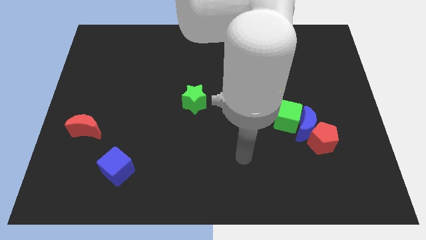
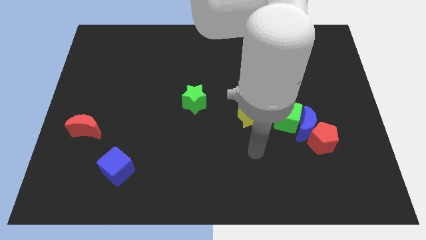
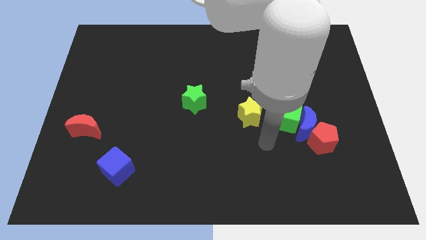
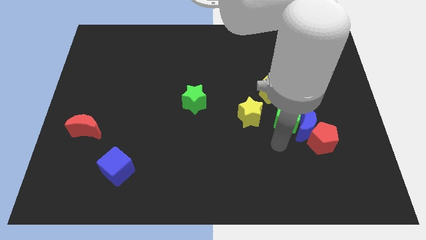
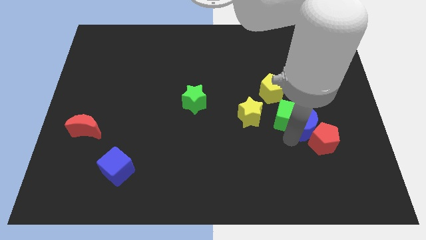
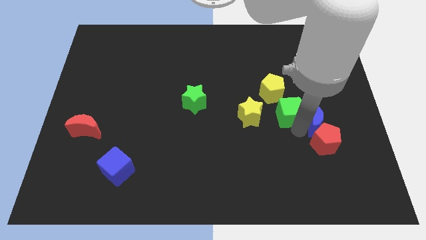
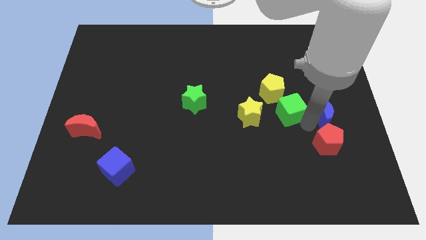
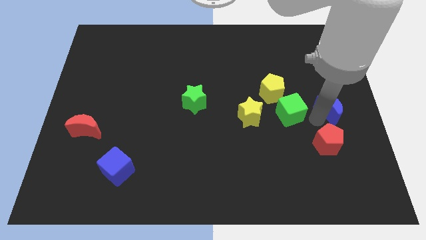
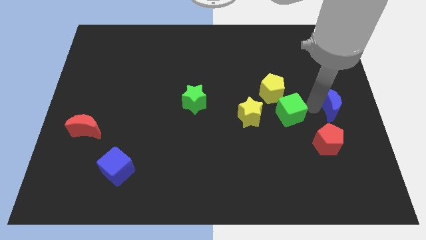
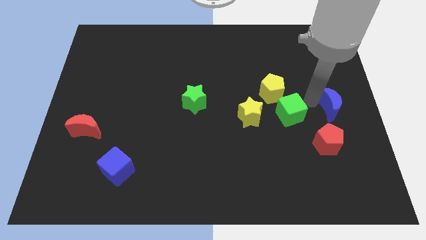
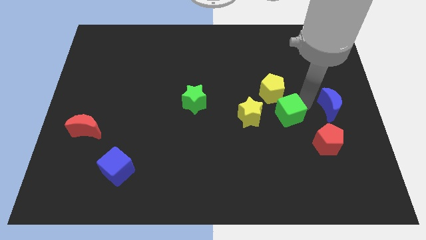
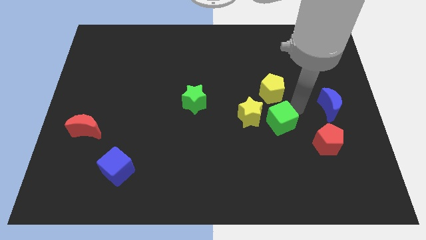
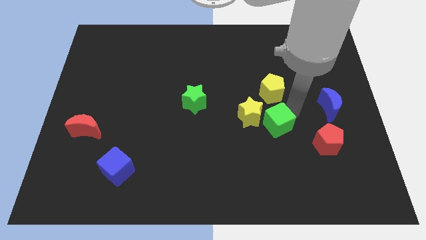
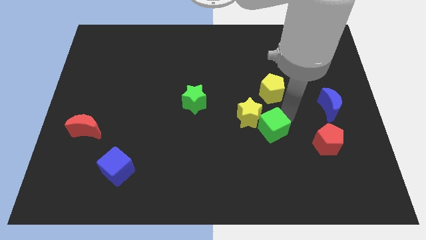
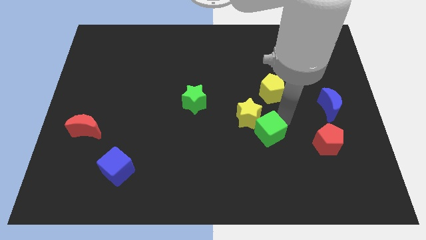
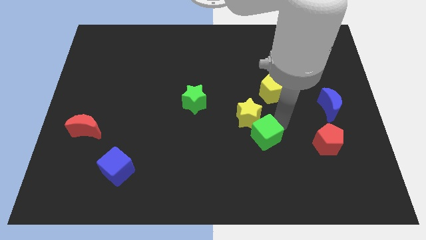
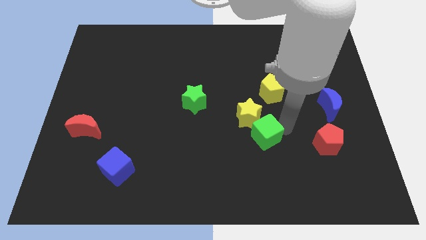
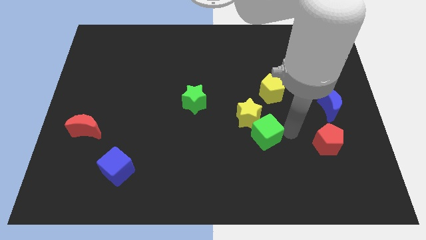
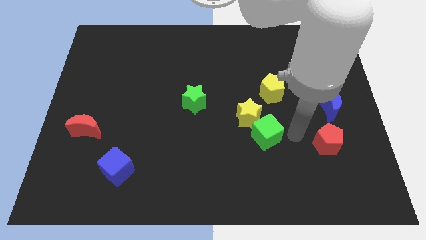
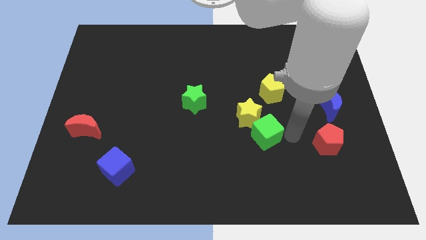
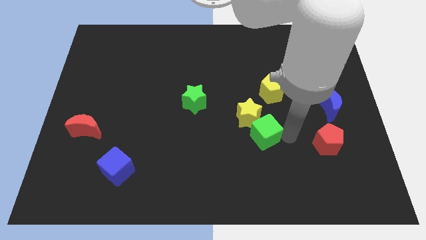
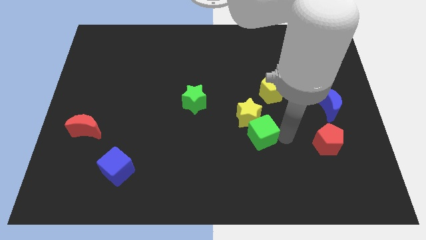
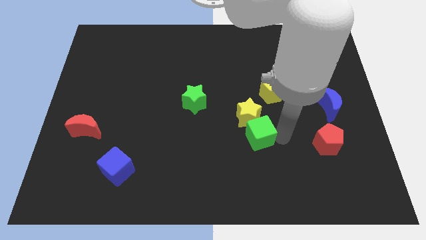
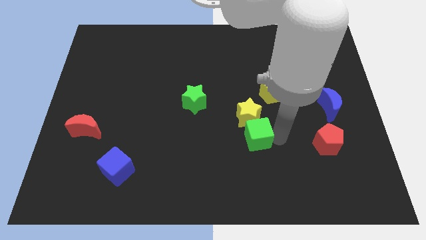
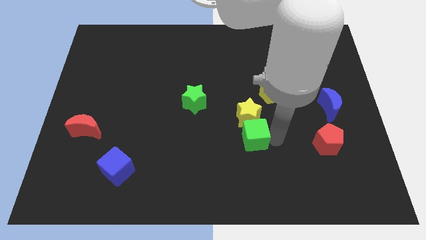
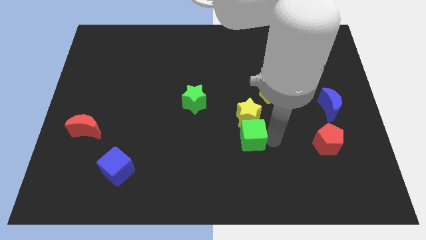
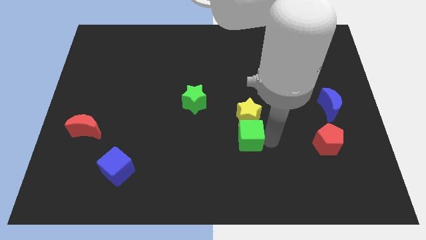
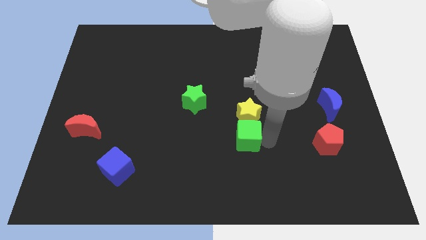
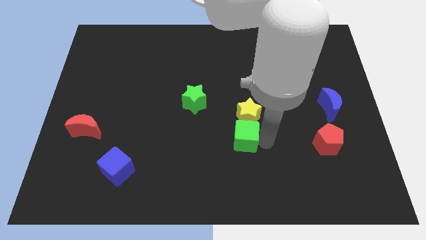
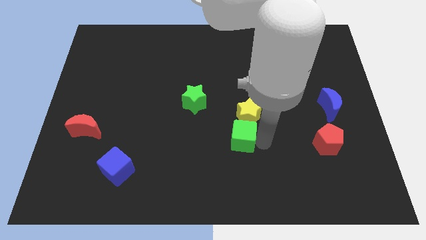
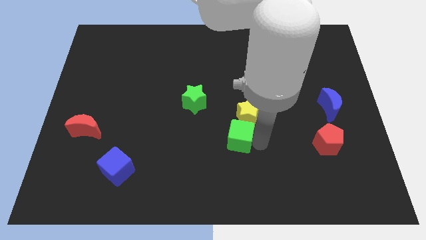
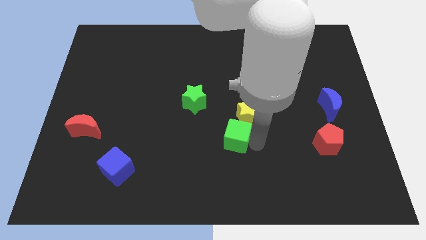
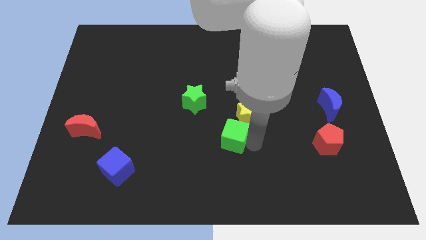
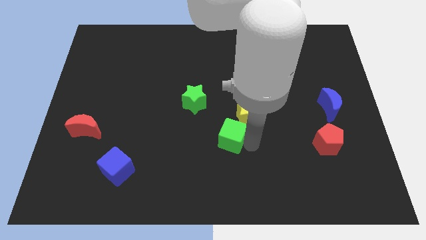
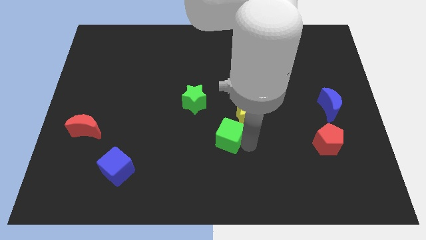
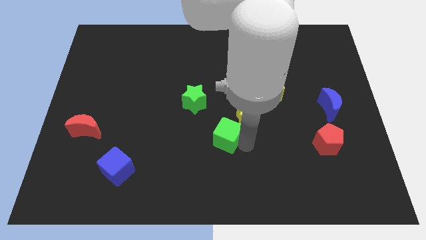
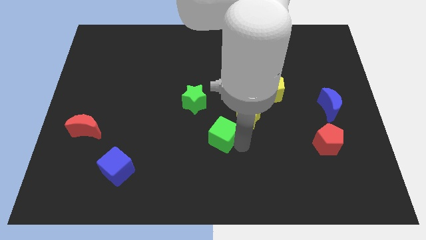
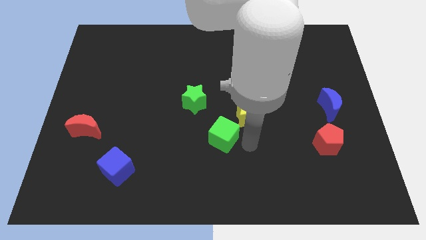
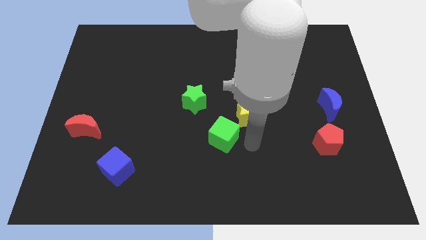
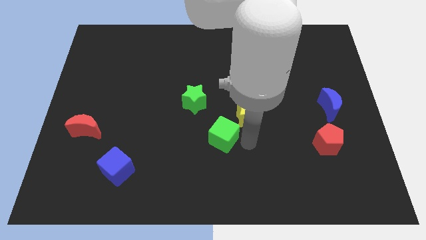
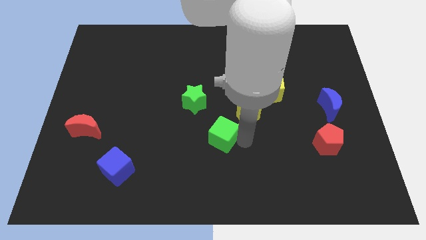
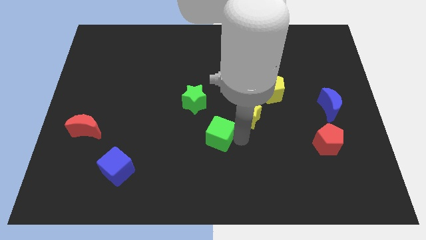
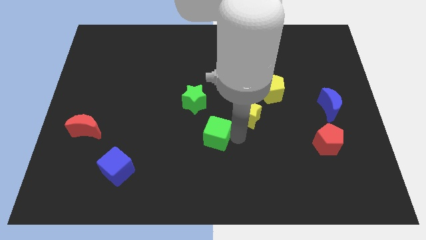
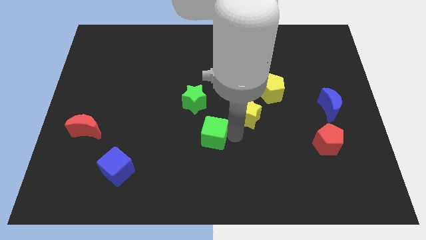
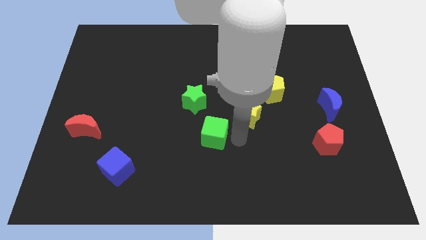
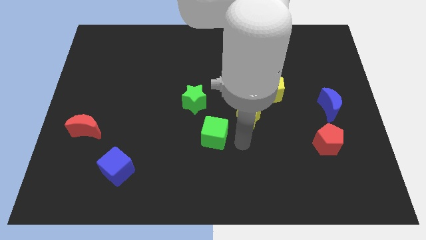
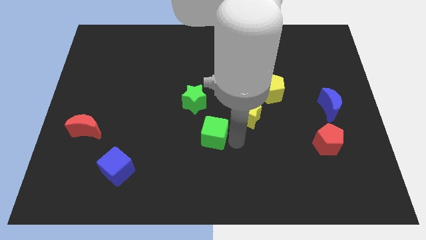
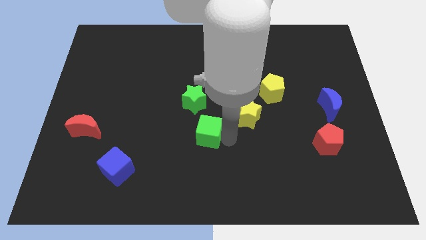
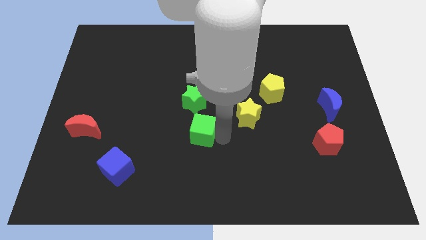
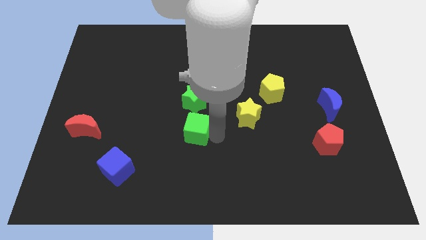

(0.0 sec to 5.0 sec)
push the green cube left

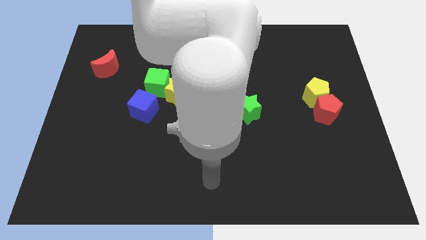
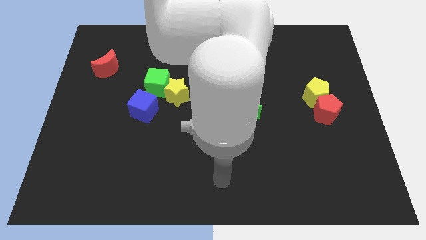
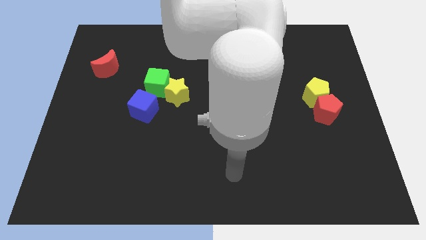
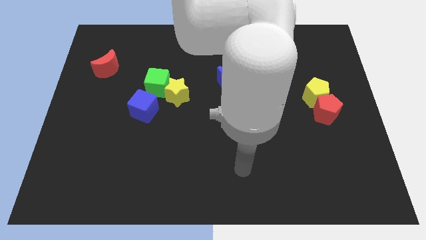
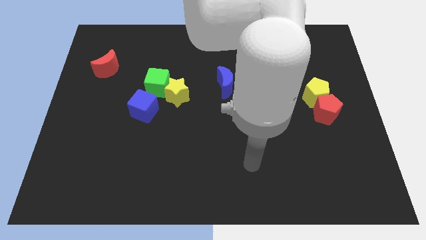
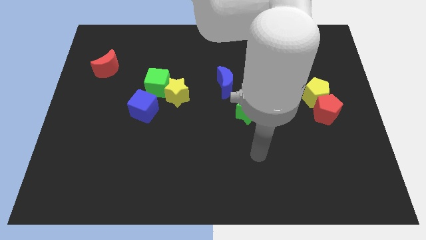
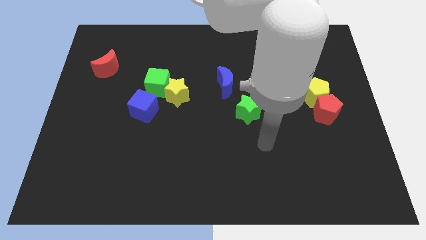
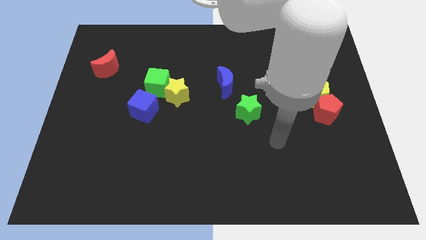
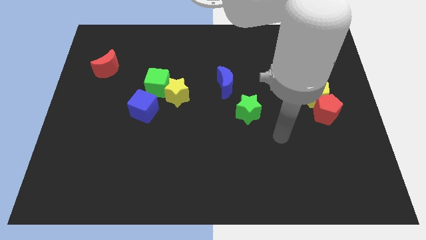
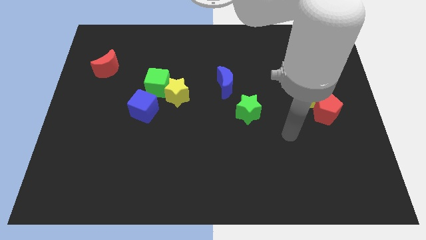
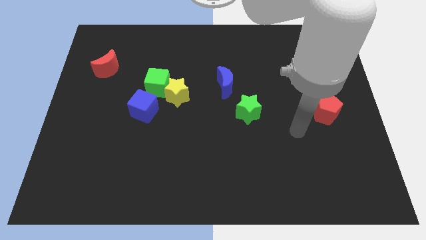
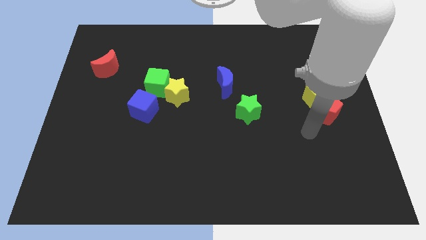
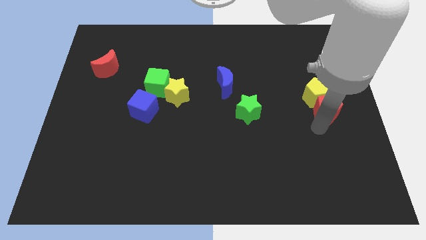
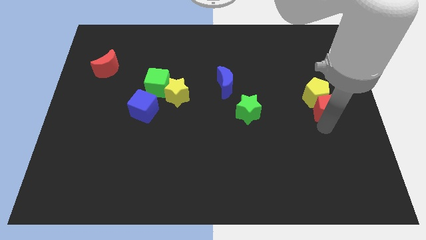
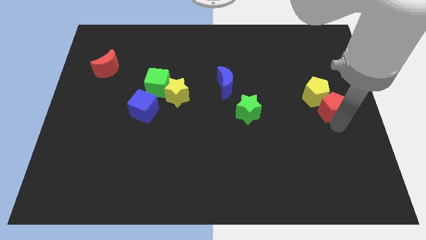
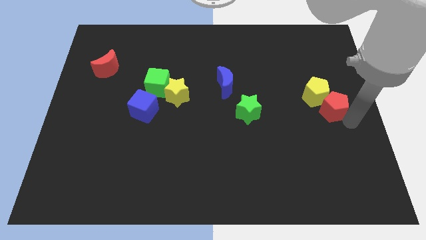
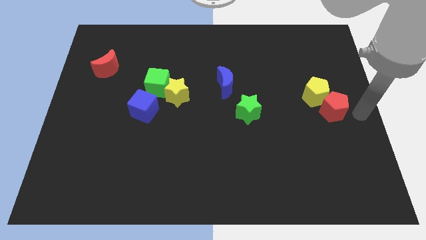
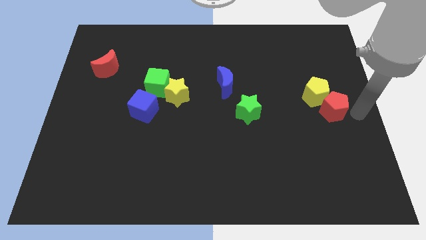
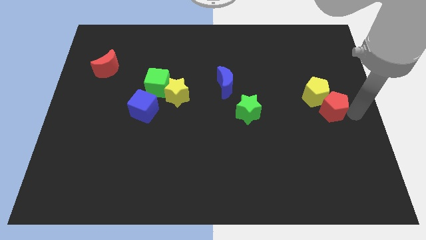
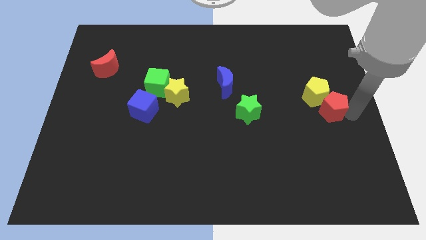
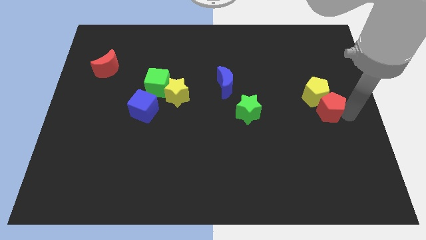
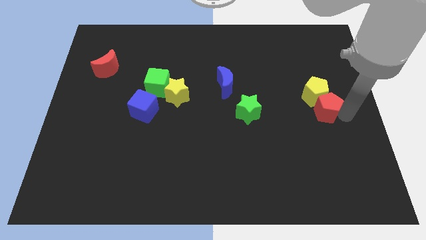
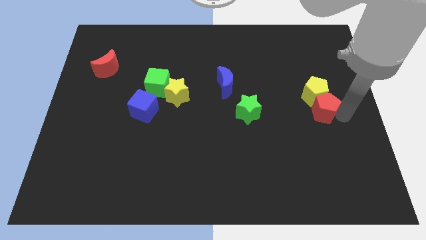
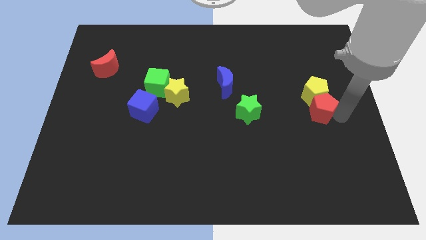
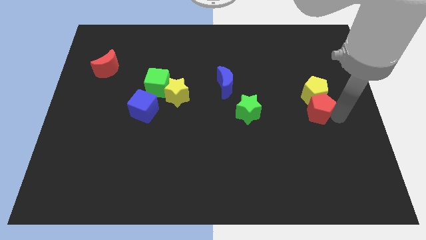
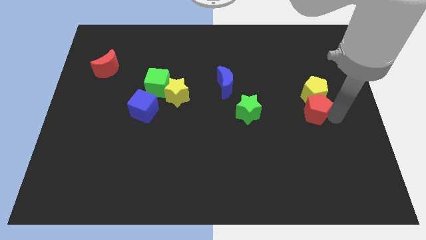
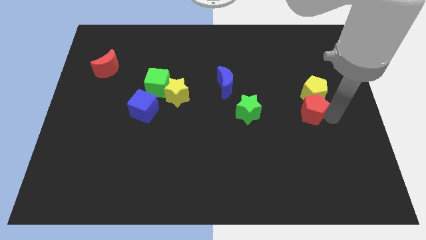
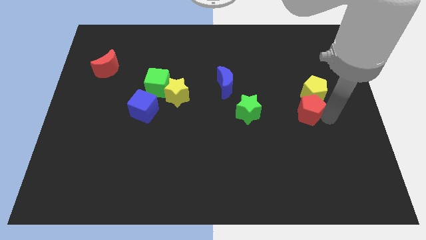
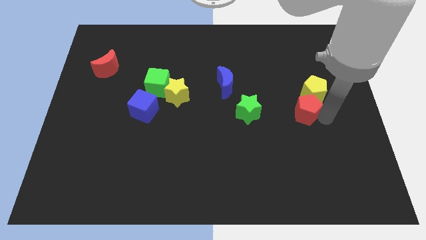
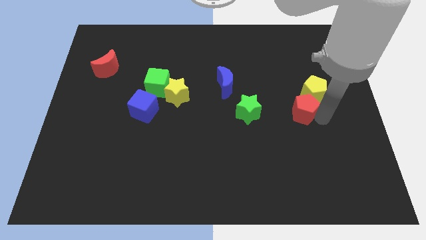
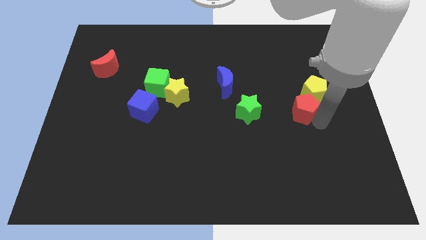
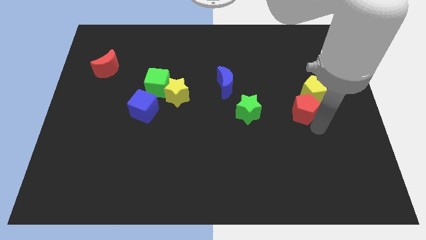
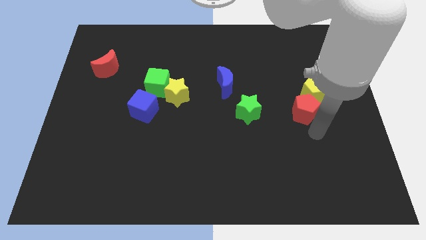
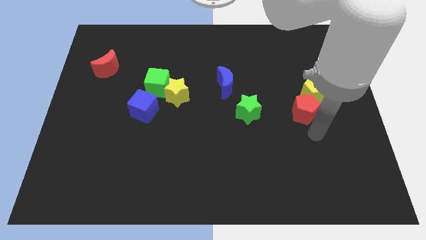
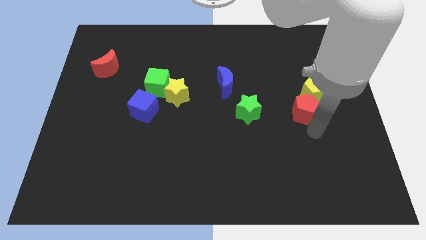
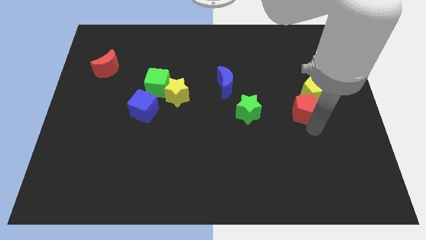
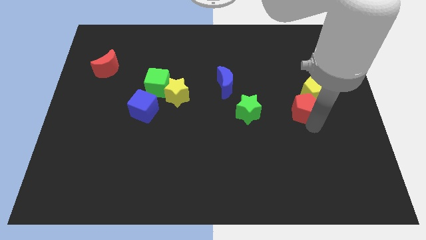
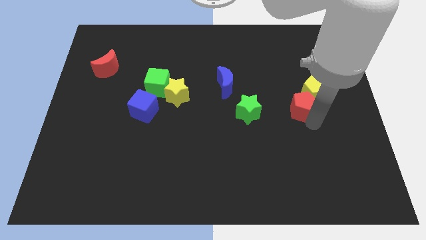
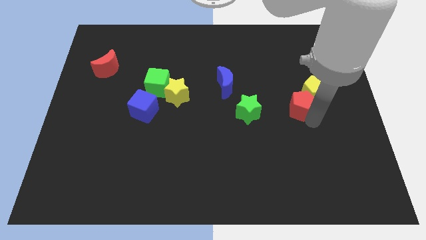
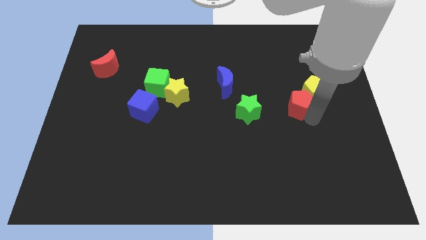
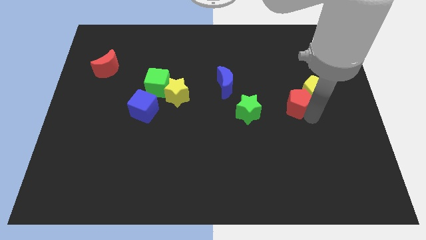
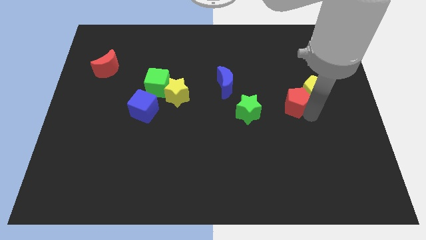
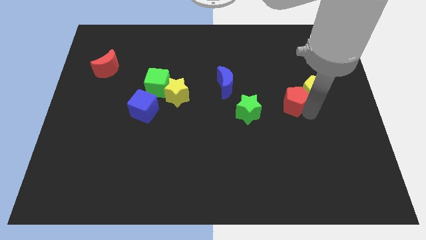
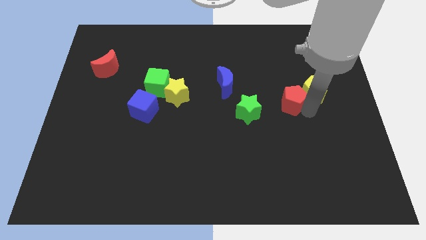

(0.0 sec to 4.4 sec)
slightly move the red pentagon up and left
